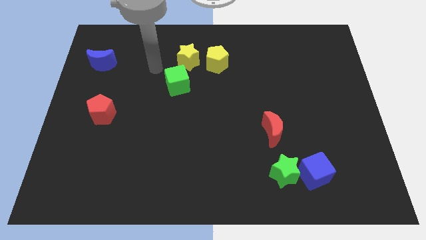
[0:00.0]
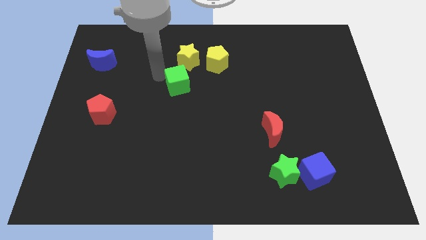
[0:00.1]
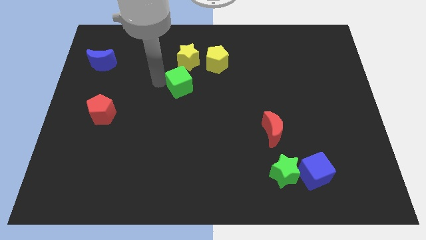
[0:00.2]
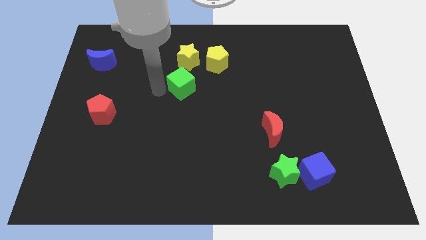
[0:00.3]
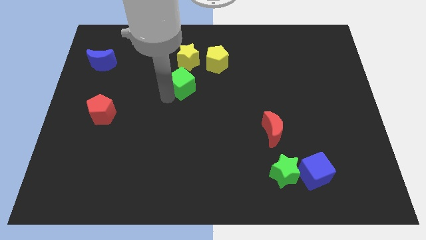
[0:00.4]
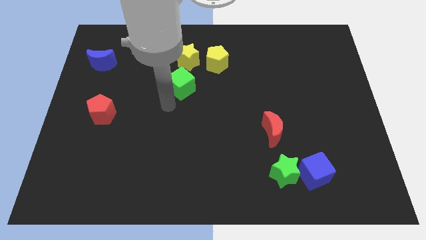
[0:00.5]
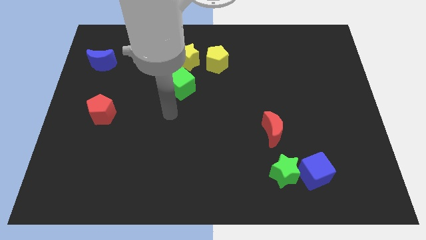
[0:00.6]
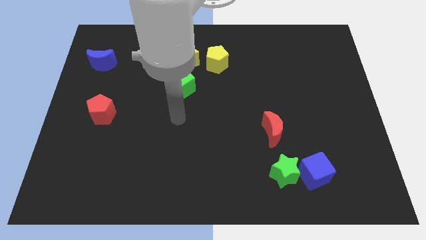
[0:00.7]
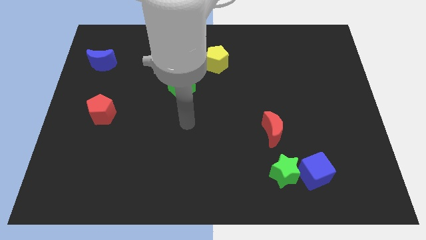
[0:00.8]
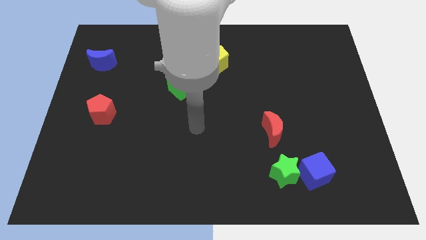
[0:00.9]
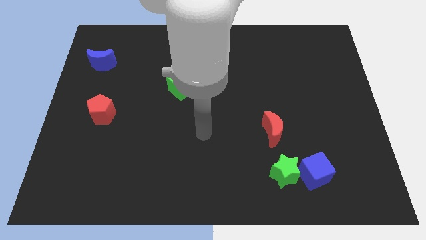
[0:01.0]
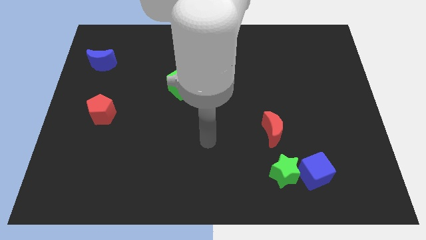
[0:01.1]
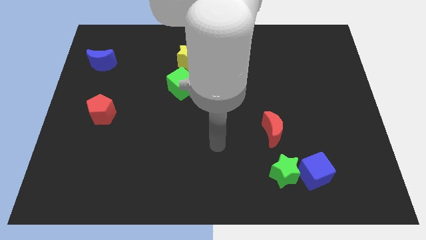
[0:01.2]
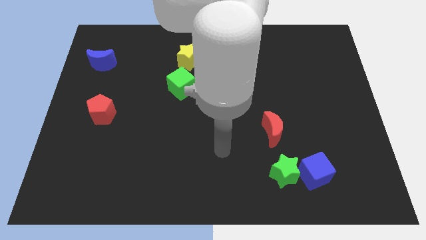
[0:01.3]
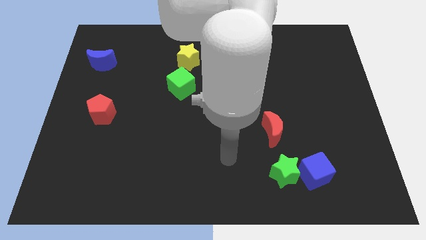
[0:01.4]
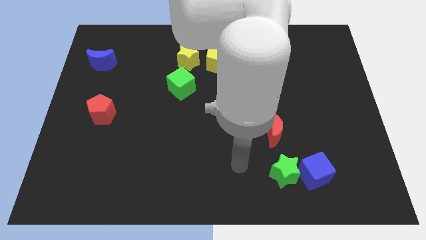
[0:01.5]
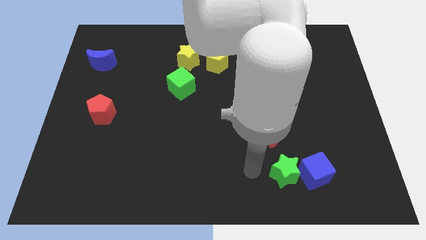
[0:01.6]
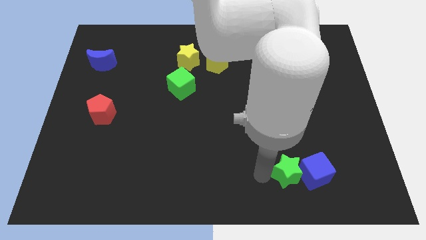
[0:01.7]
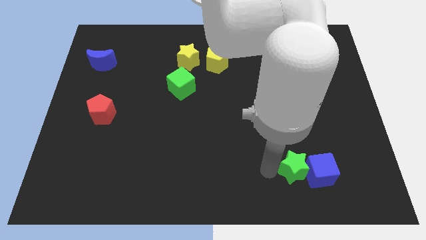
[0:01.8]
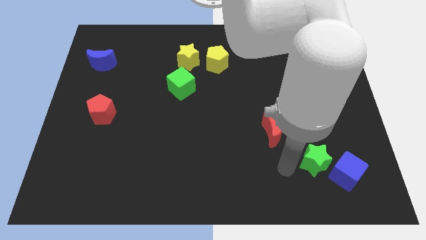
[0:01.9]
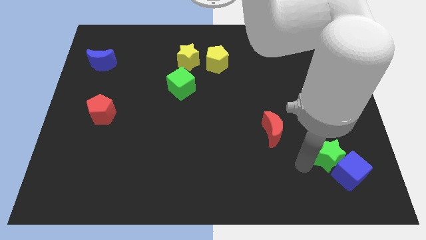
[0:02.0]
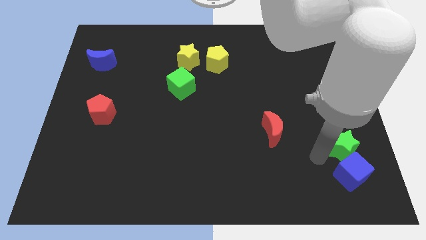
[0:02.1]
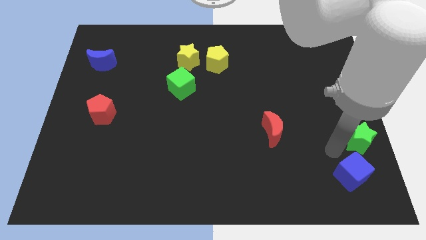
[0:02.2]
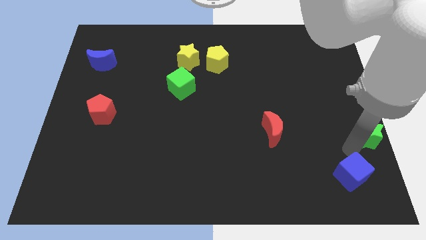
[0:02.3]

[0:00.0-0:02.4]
pull the blue cube apart from the green star

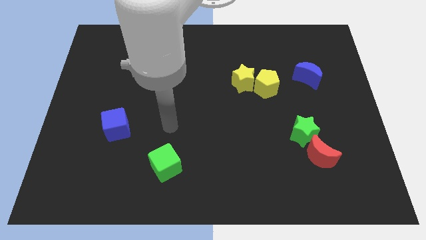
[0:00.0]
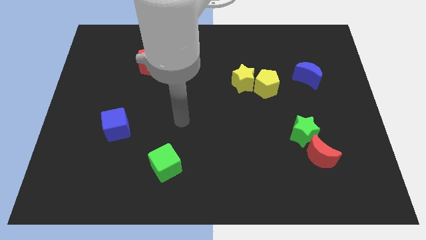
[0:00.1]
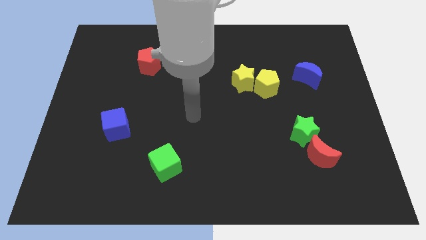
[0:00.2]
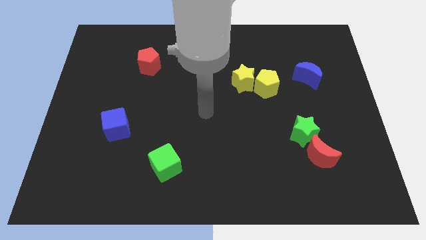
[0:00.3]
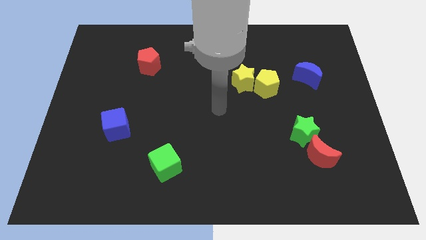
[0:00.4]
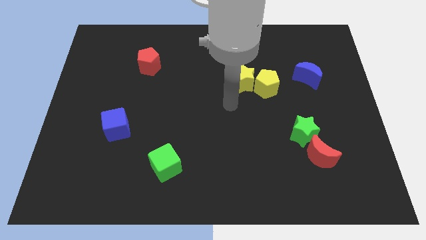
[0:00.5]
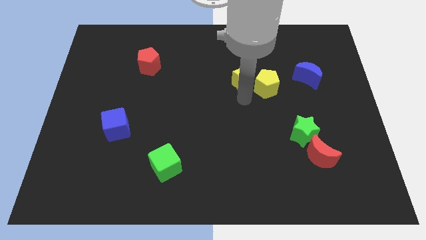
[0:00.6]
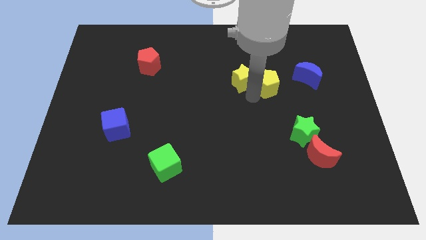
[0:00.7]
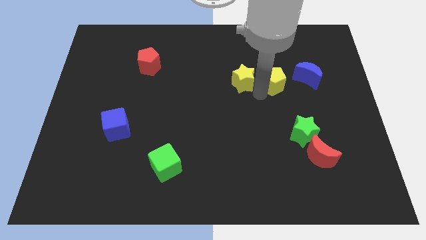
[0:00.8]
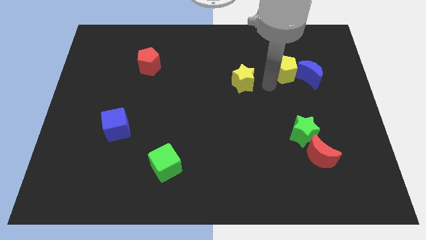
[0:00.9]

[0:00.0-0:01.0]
separate the yellow star from the yellow pentagon

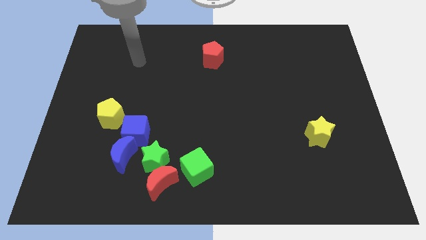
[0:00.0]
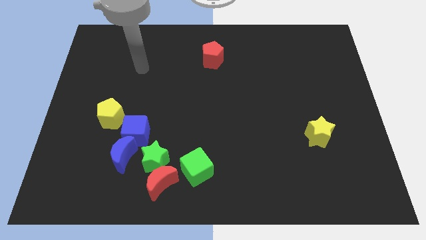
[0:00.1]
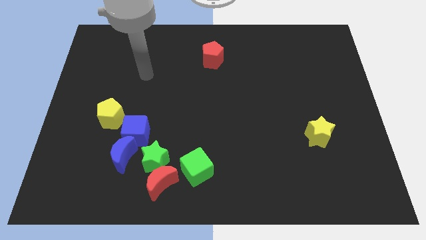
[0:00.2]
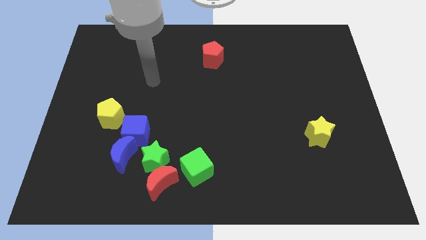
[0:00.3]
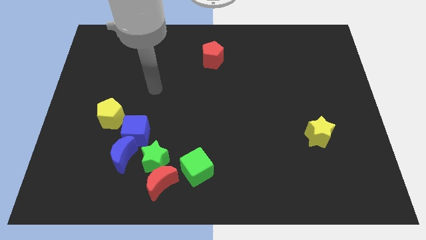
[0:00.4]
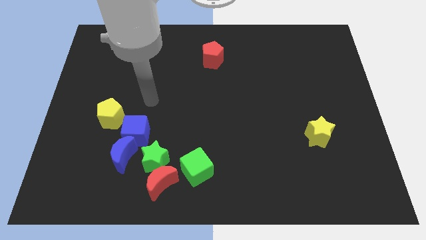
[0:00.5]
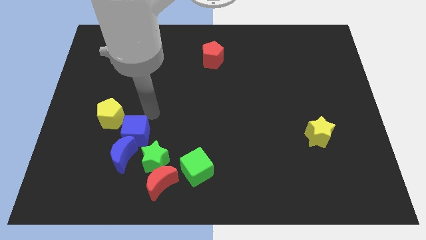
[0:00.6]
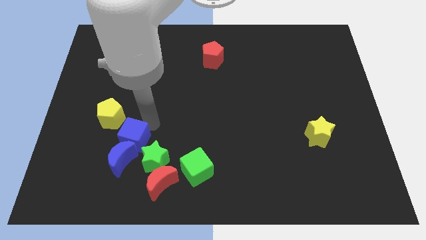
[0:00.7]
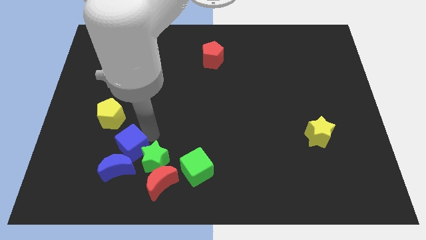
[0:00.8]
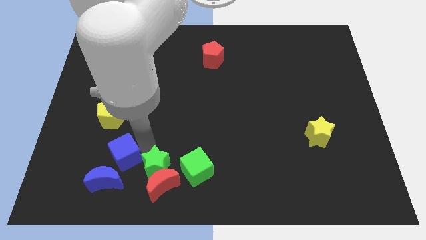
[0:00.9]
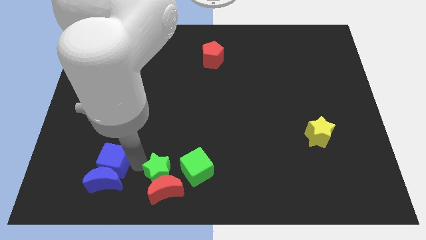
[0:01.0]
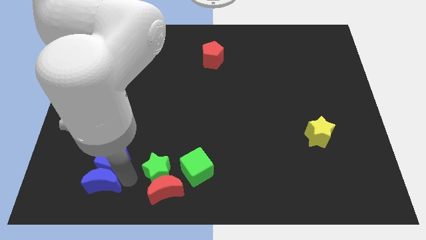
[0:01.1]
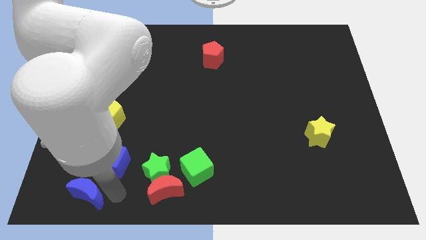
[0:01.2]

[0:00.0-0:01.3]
pull the blue moon apart from the blue cube and green star

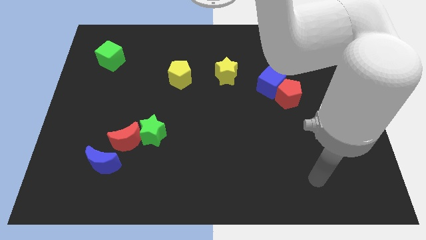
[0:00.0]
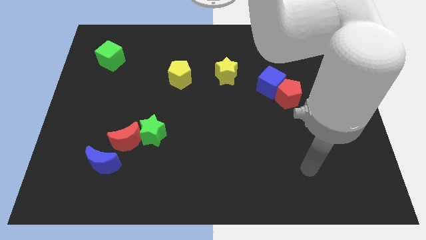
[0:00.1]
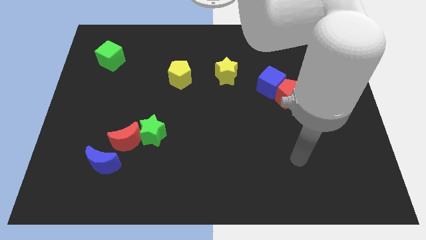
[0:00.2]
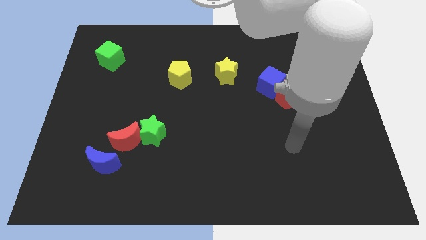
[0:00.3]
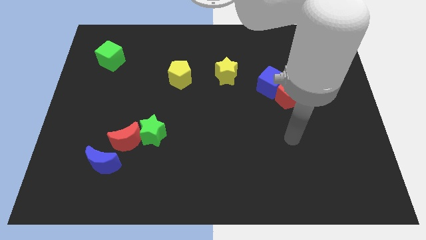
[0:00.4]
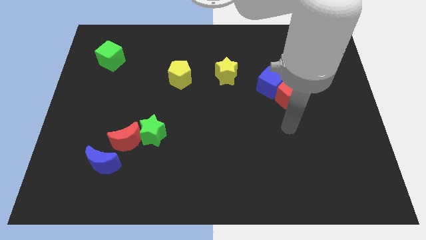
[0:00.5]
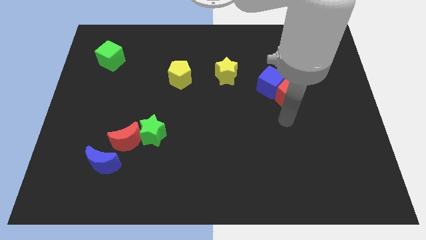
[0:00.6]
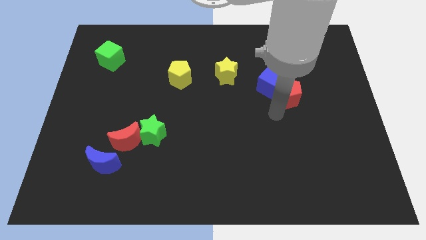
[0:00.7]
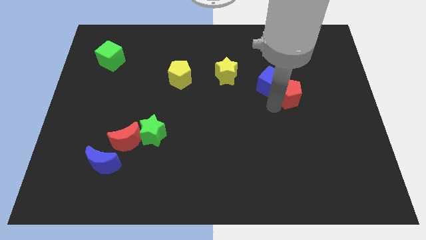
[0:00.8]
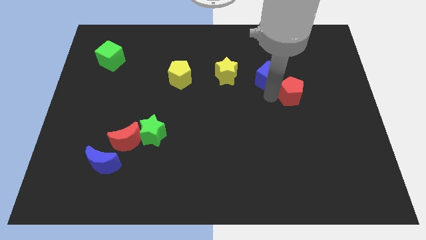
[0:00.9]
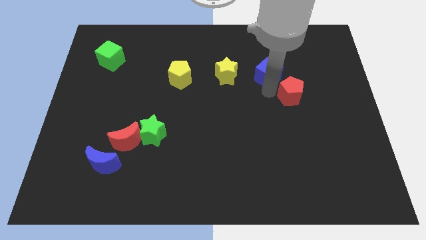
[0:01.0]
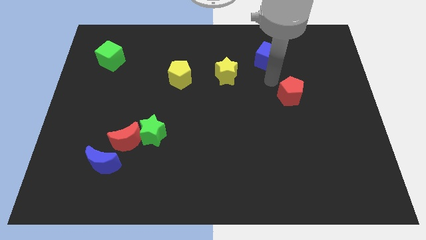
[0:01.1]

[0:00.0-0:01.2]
pull the red pentagon apart from the blue cube

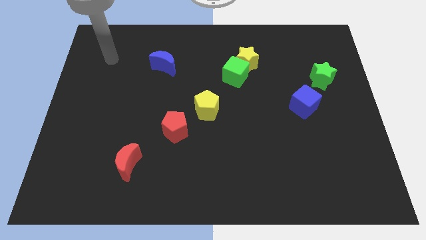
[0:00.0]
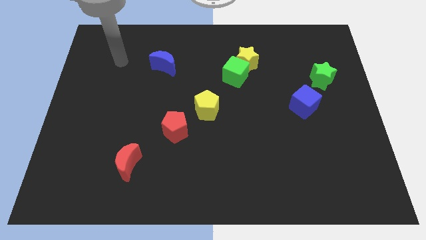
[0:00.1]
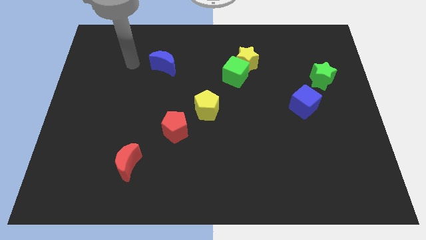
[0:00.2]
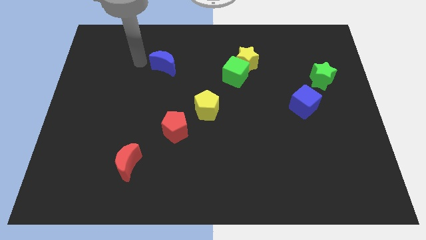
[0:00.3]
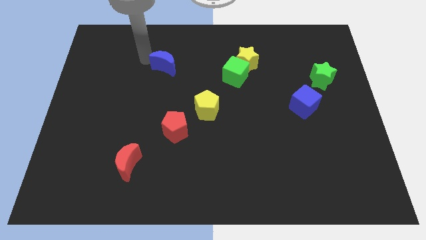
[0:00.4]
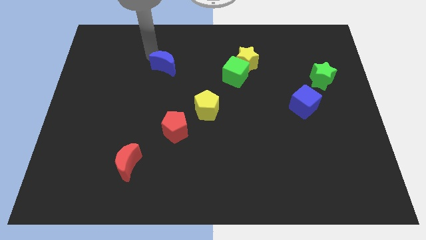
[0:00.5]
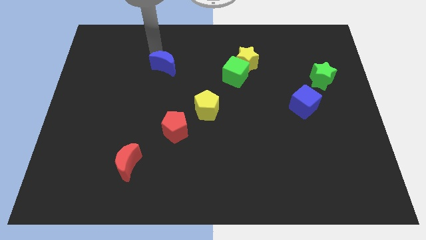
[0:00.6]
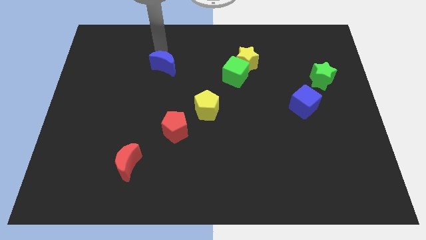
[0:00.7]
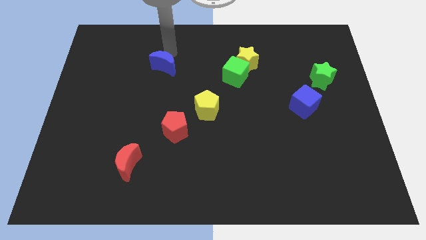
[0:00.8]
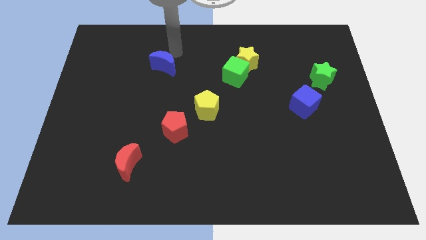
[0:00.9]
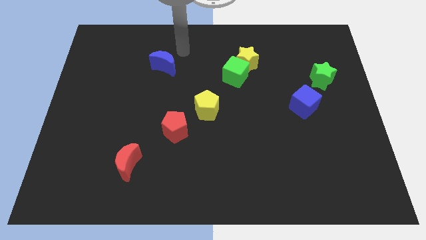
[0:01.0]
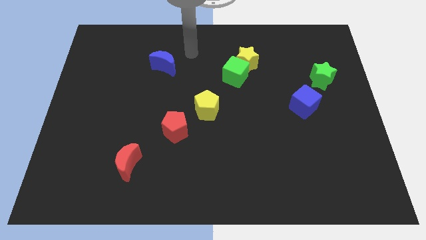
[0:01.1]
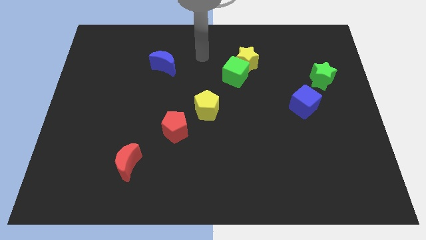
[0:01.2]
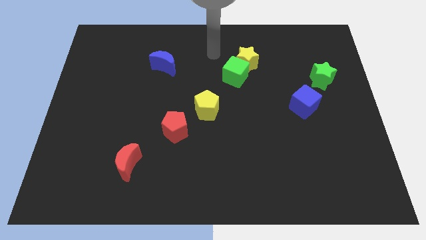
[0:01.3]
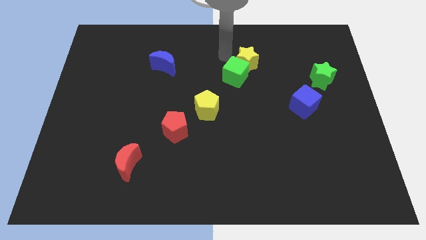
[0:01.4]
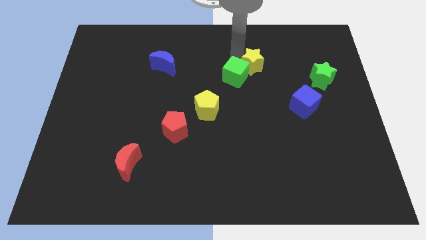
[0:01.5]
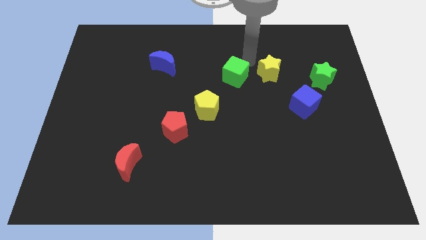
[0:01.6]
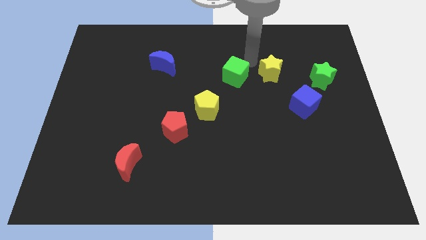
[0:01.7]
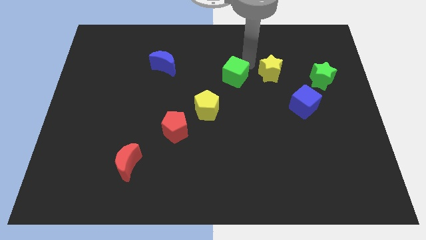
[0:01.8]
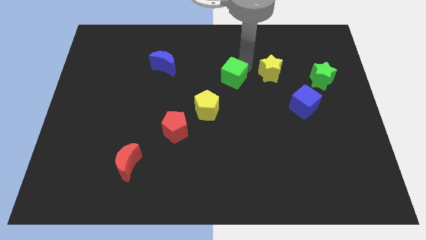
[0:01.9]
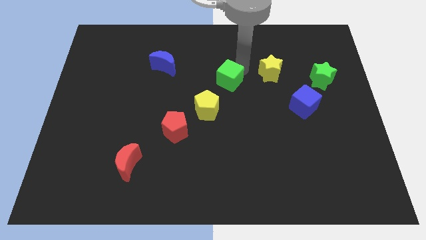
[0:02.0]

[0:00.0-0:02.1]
pull the green cube apart from the yellow star

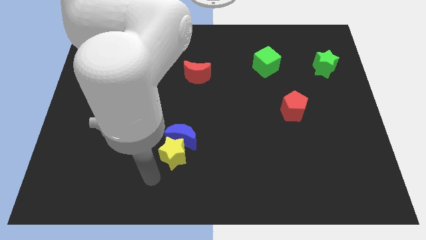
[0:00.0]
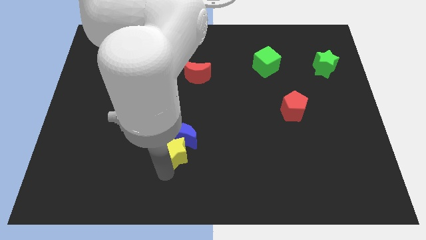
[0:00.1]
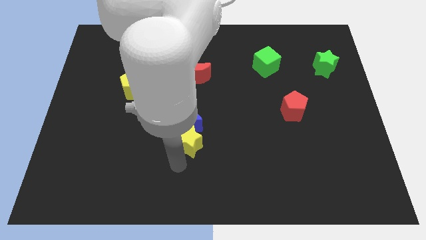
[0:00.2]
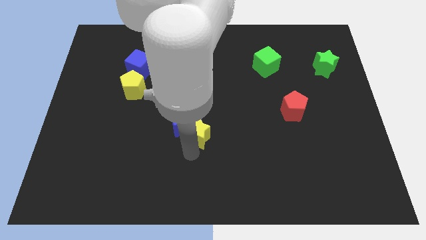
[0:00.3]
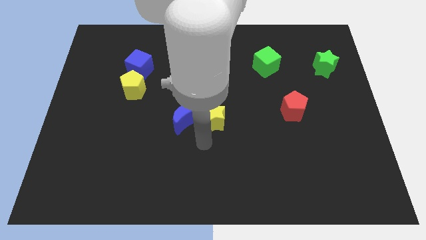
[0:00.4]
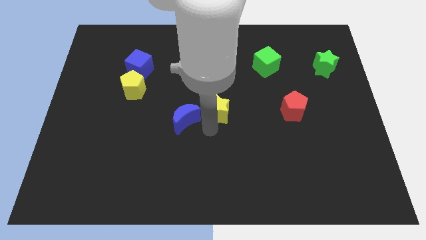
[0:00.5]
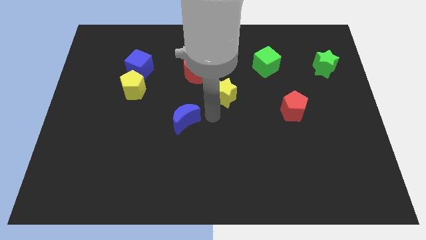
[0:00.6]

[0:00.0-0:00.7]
pull the blue moon apart from the yellow star

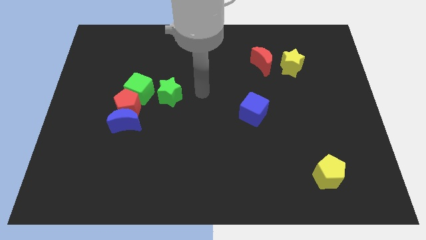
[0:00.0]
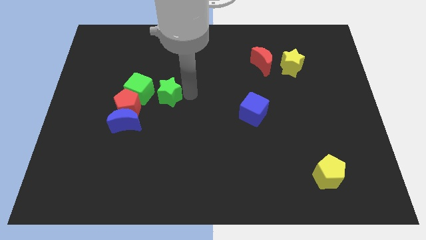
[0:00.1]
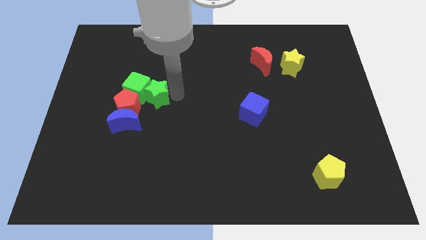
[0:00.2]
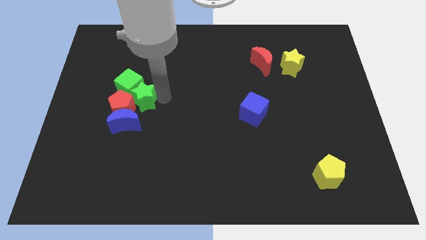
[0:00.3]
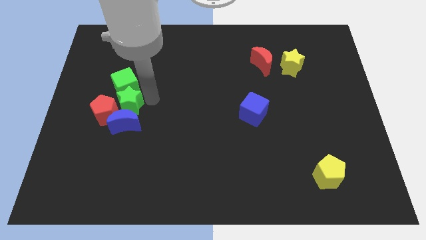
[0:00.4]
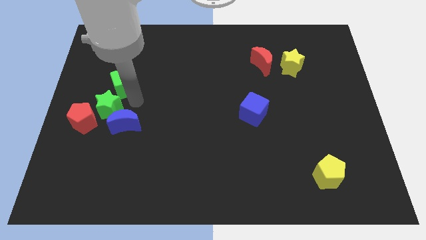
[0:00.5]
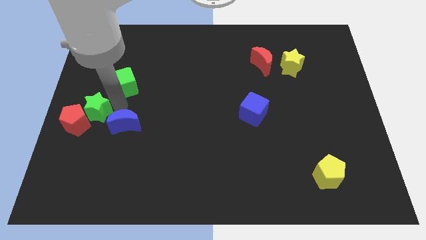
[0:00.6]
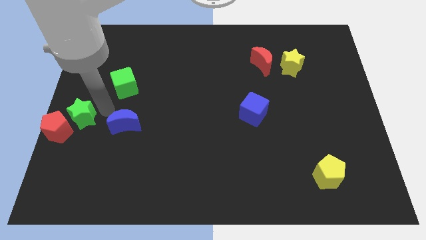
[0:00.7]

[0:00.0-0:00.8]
pull the red pentagon apart from the group of blocks

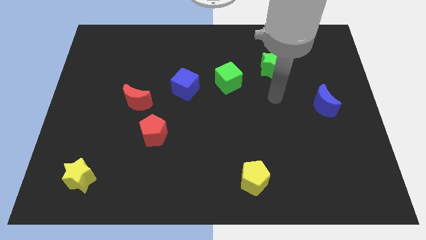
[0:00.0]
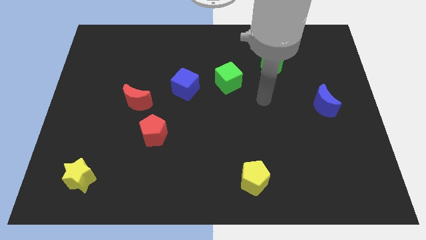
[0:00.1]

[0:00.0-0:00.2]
move the red moon away from the red pentagon
